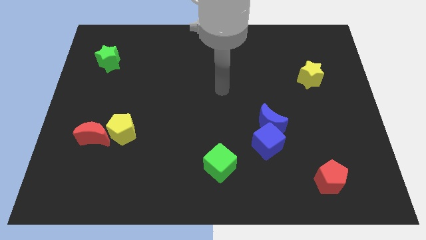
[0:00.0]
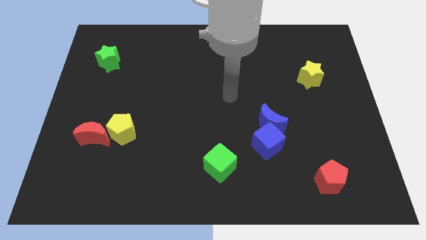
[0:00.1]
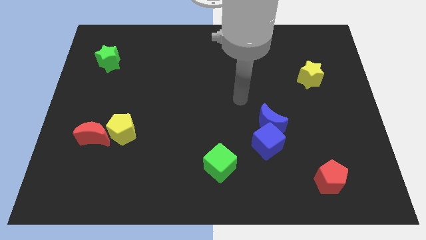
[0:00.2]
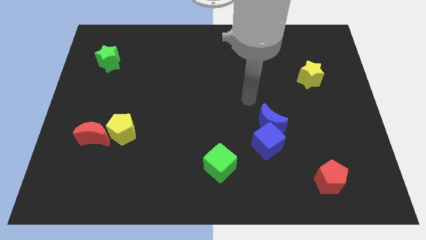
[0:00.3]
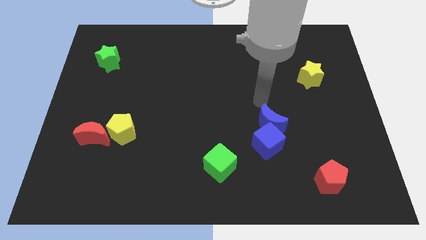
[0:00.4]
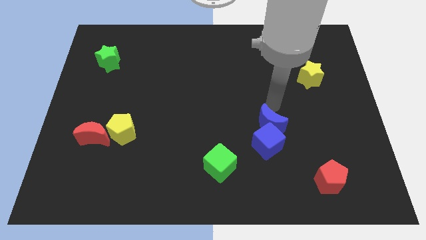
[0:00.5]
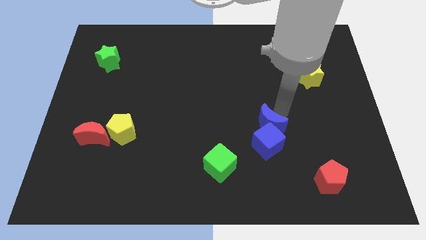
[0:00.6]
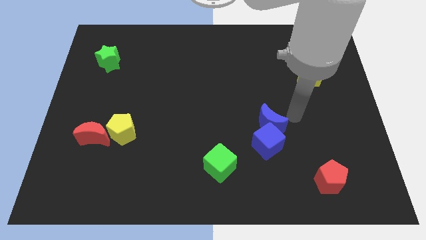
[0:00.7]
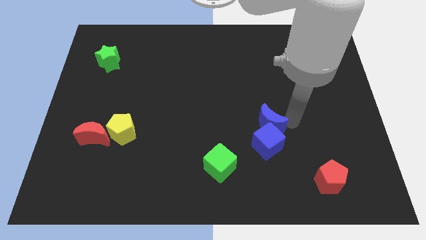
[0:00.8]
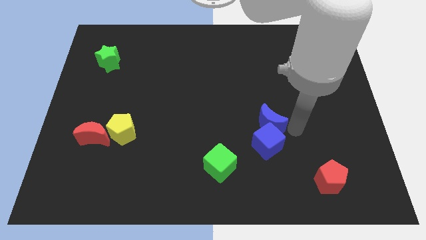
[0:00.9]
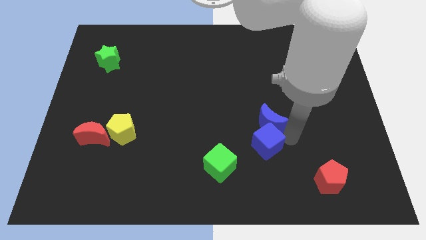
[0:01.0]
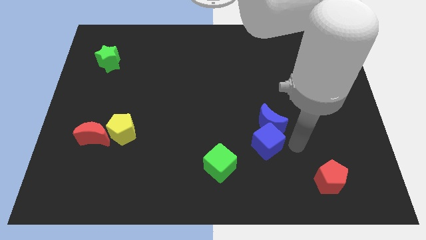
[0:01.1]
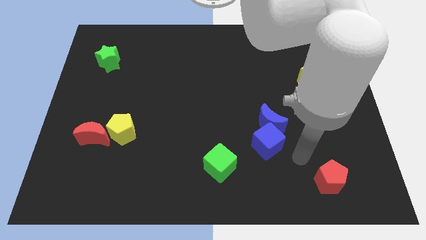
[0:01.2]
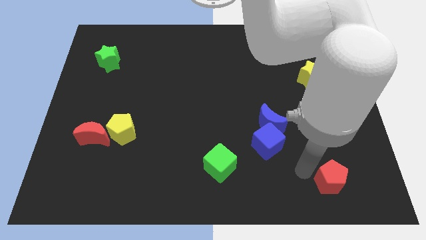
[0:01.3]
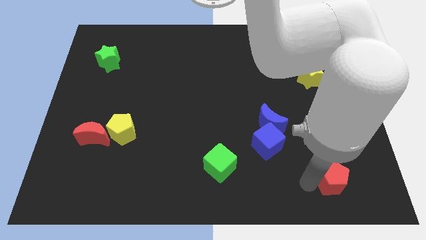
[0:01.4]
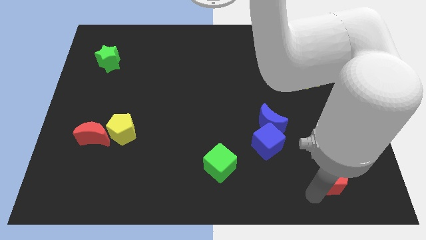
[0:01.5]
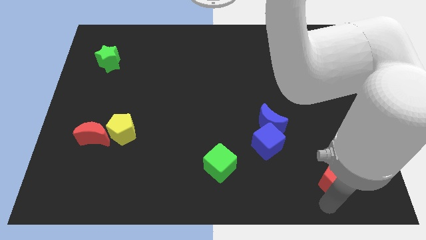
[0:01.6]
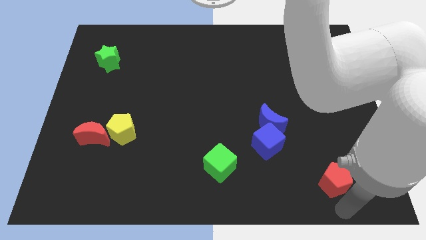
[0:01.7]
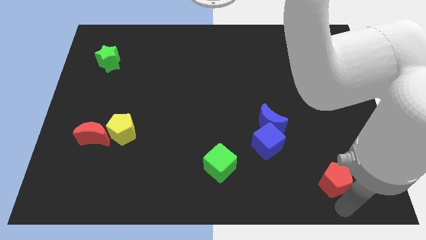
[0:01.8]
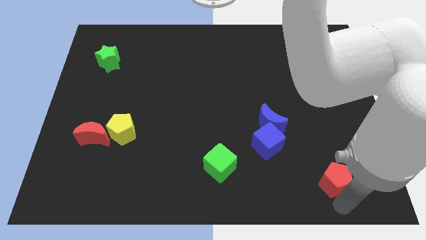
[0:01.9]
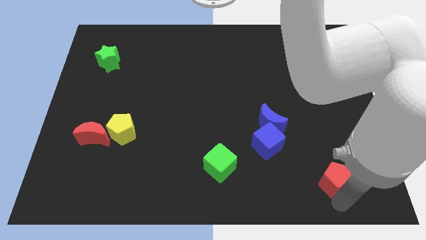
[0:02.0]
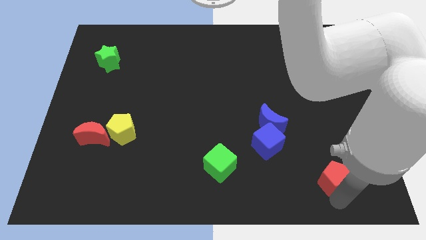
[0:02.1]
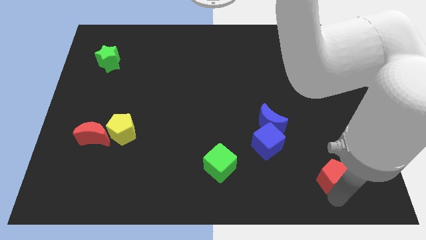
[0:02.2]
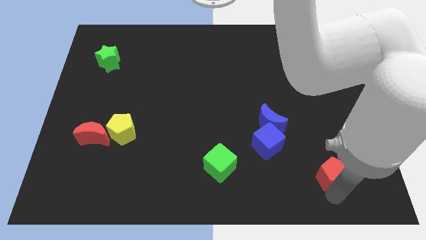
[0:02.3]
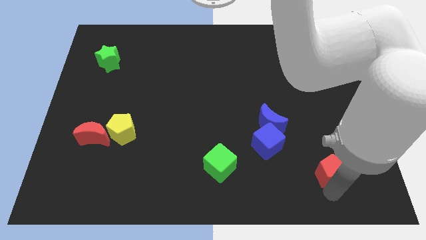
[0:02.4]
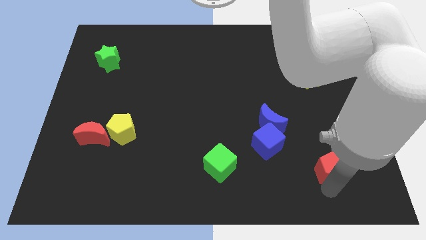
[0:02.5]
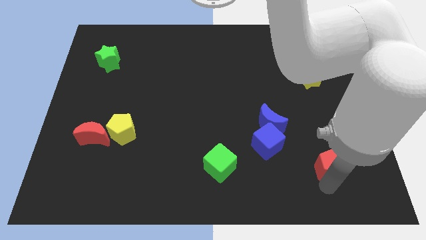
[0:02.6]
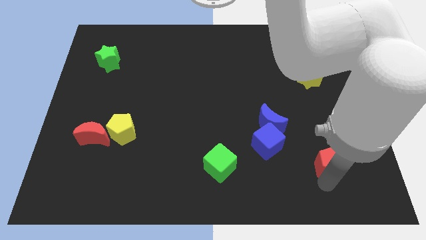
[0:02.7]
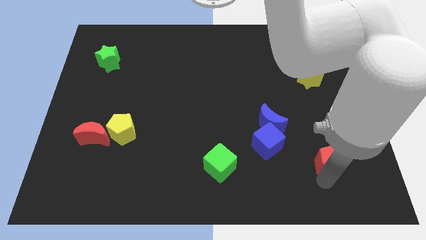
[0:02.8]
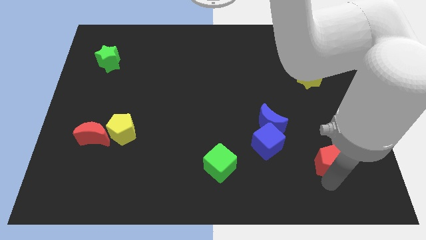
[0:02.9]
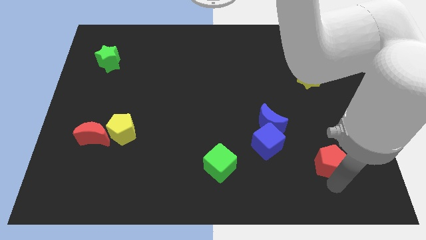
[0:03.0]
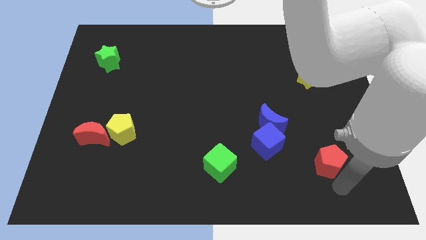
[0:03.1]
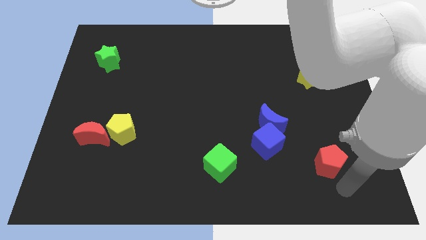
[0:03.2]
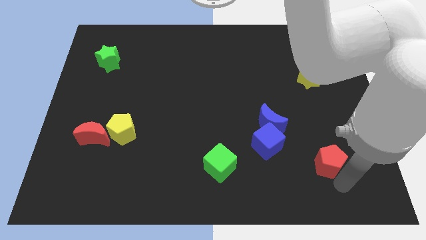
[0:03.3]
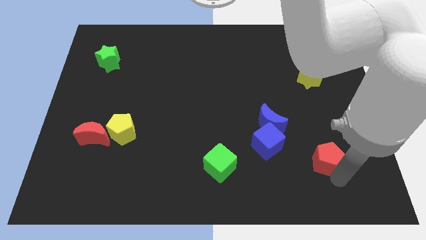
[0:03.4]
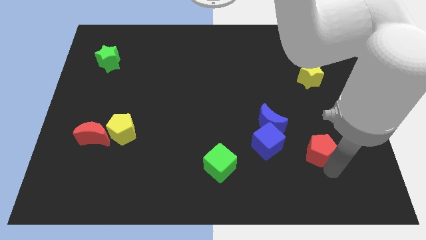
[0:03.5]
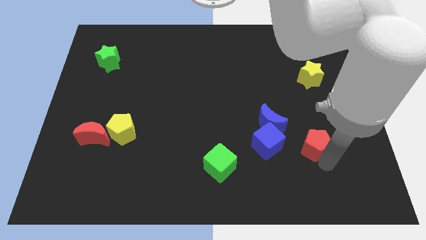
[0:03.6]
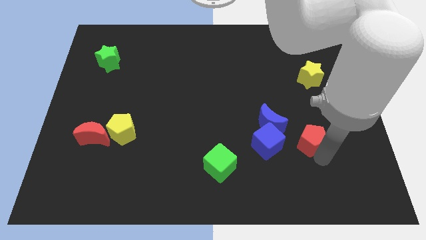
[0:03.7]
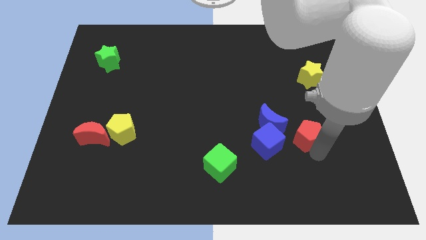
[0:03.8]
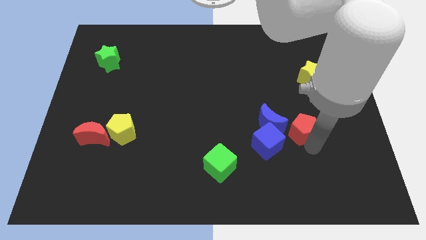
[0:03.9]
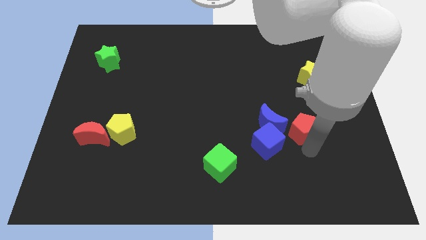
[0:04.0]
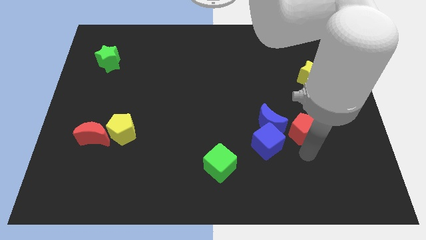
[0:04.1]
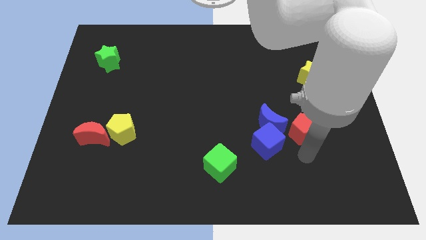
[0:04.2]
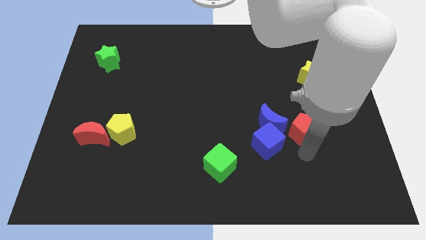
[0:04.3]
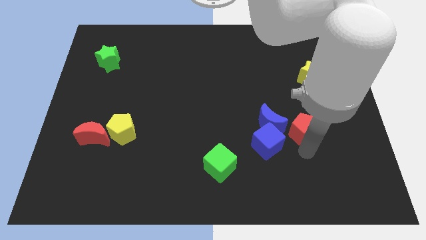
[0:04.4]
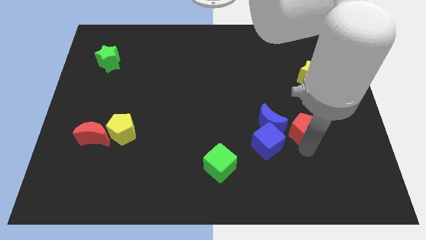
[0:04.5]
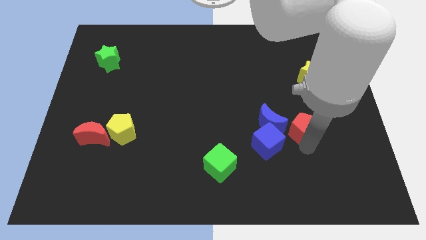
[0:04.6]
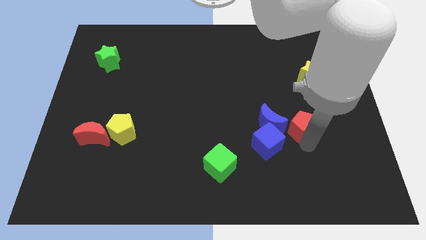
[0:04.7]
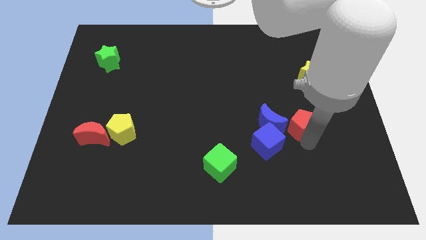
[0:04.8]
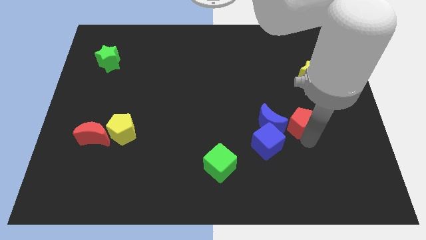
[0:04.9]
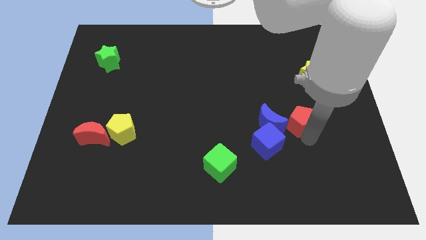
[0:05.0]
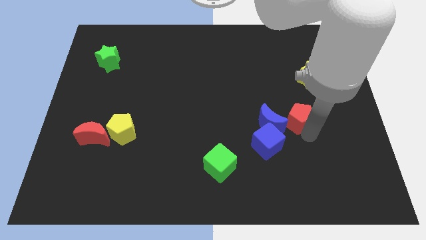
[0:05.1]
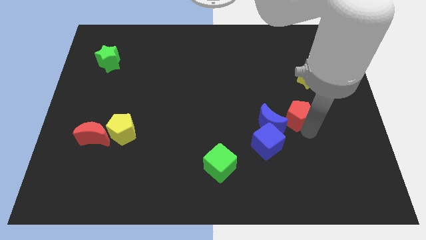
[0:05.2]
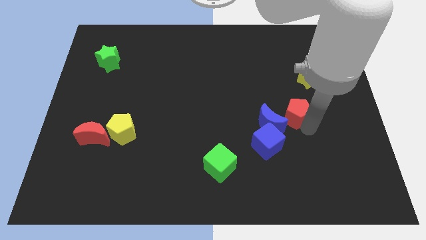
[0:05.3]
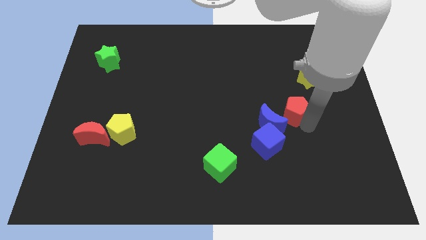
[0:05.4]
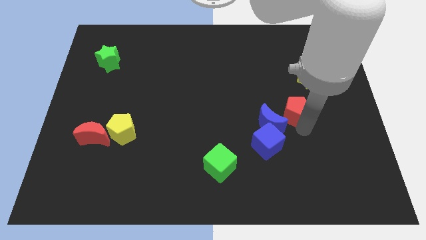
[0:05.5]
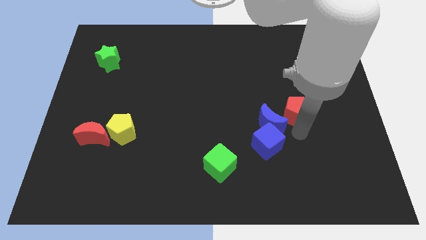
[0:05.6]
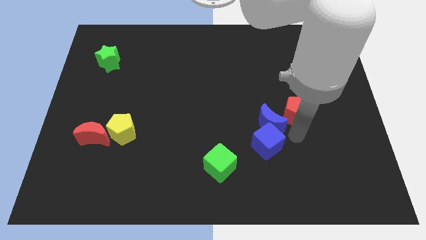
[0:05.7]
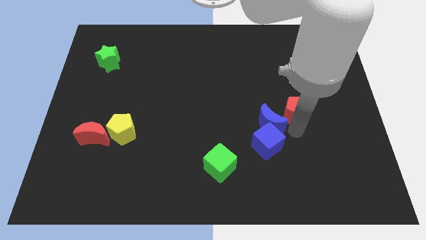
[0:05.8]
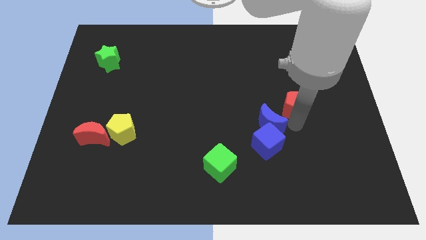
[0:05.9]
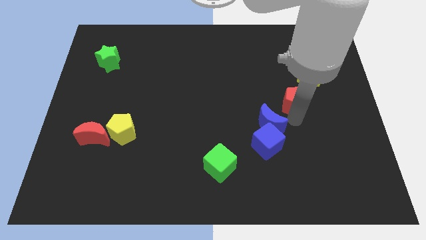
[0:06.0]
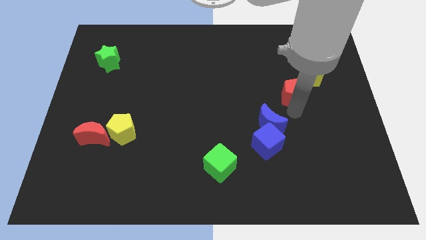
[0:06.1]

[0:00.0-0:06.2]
push the red pentagon upwards

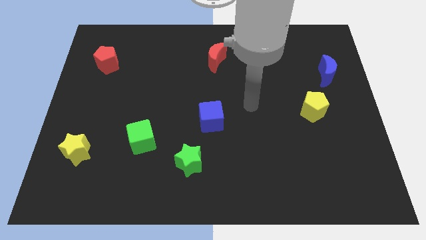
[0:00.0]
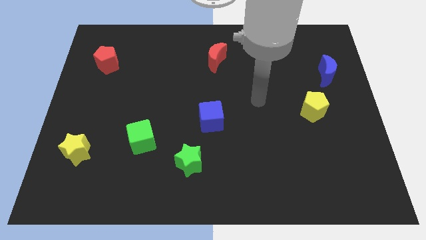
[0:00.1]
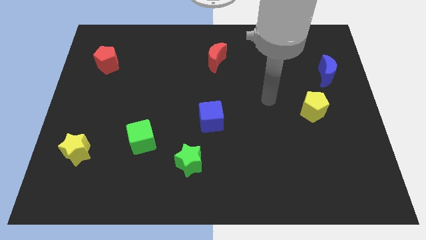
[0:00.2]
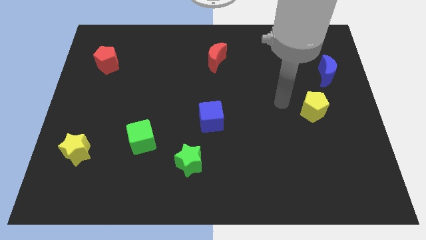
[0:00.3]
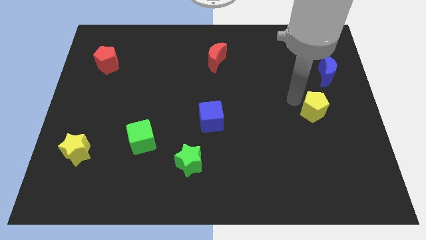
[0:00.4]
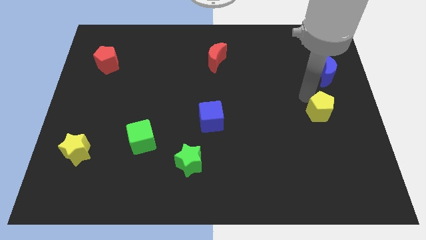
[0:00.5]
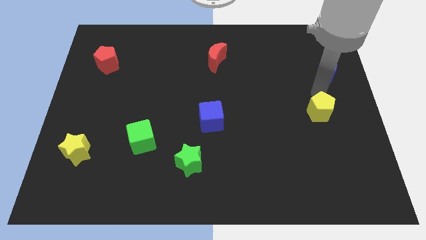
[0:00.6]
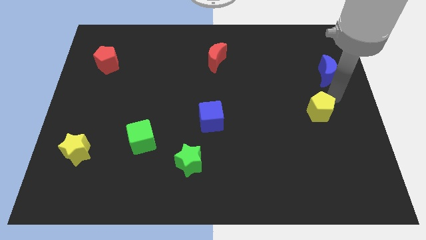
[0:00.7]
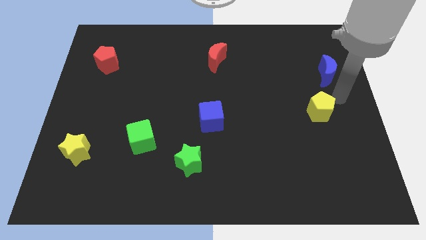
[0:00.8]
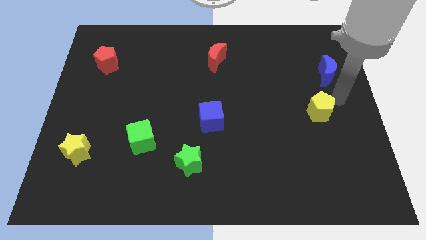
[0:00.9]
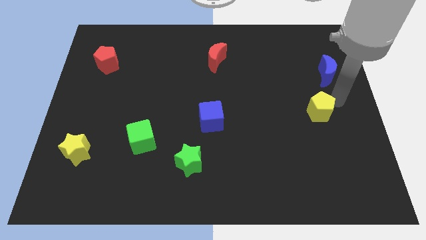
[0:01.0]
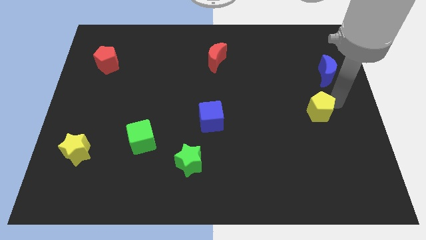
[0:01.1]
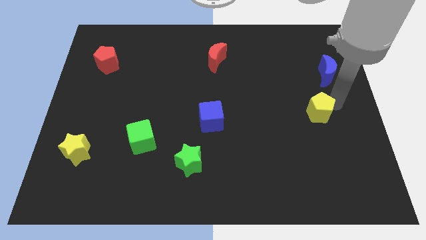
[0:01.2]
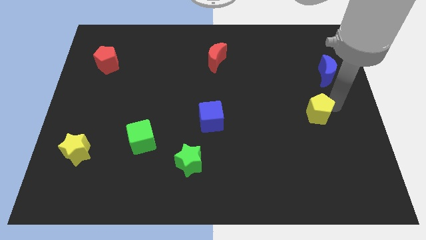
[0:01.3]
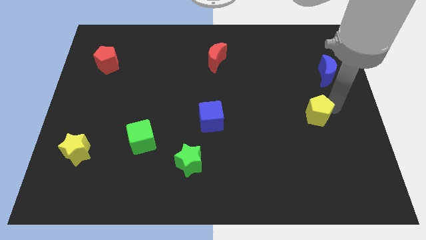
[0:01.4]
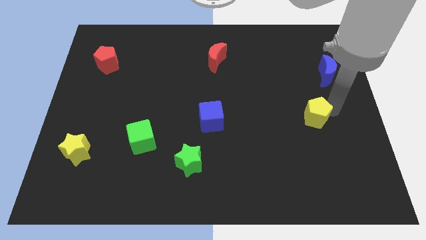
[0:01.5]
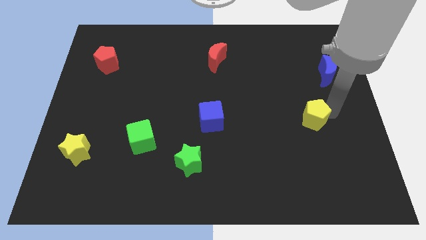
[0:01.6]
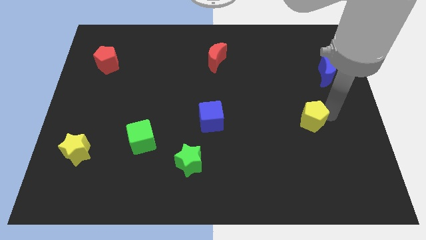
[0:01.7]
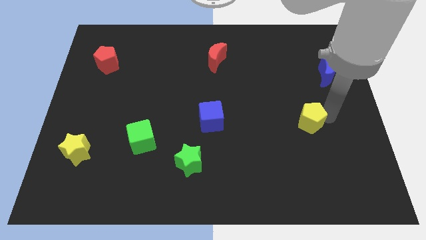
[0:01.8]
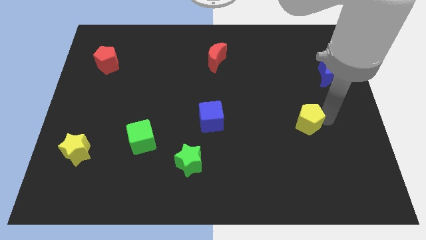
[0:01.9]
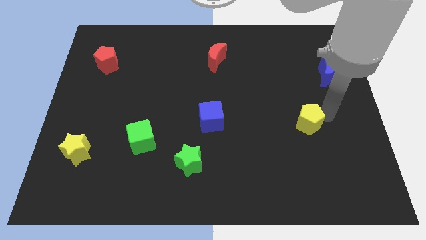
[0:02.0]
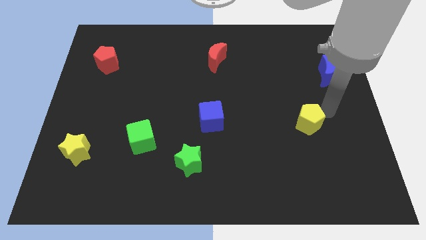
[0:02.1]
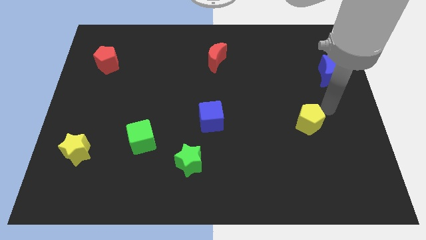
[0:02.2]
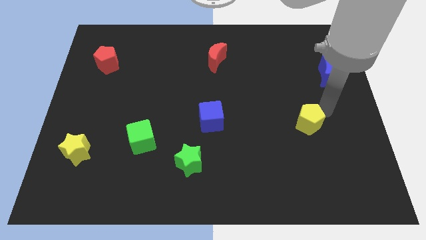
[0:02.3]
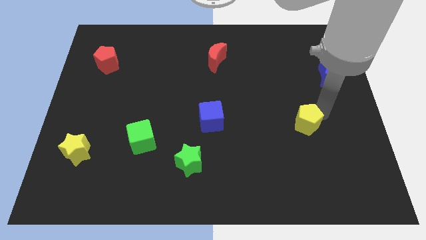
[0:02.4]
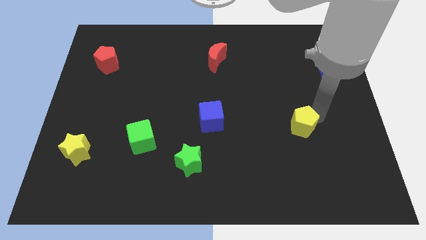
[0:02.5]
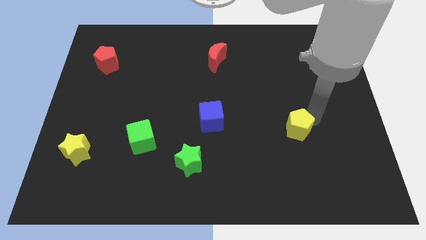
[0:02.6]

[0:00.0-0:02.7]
move the yellow pentagon a bit downwards and to the left
